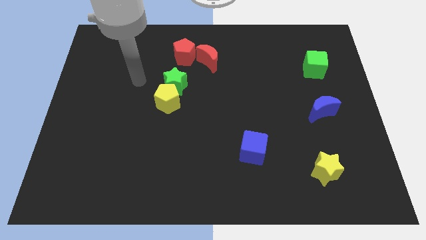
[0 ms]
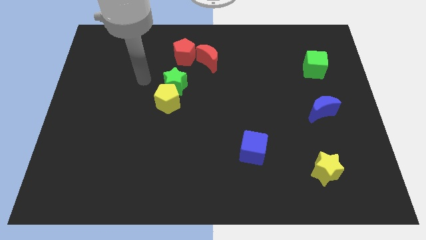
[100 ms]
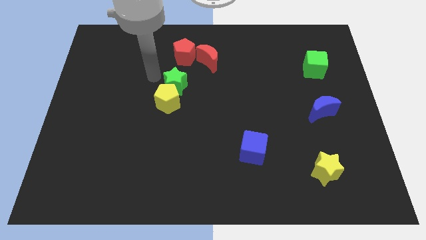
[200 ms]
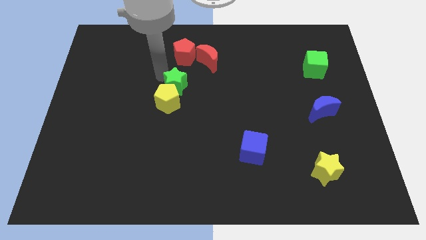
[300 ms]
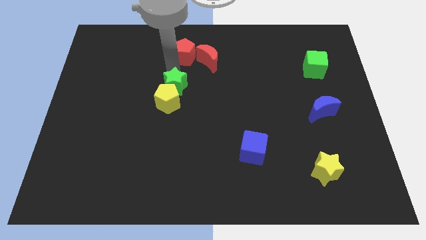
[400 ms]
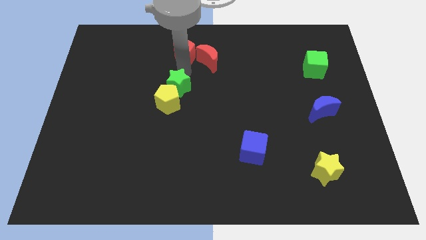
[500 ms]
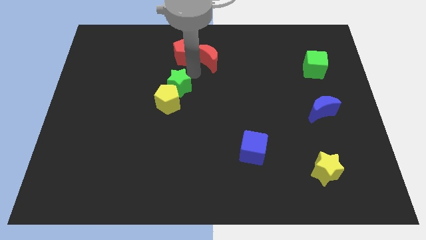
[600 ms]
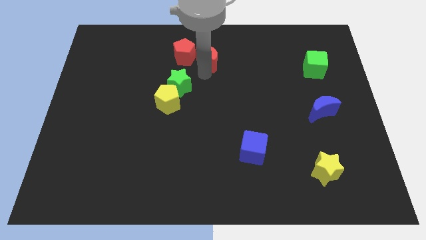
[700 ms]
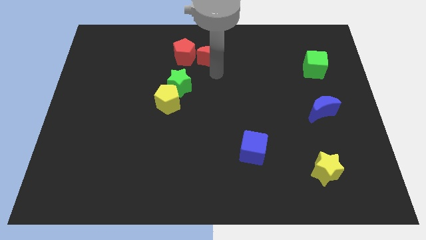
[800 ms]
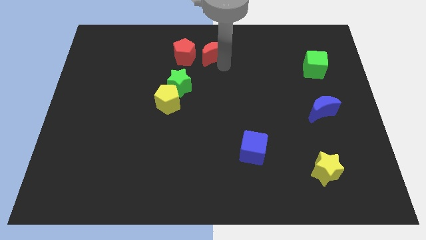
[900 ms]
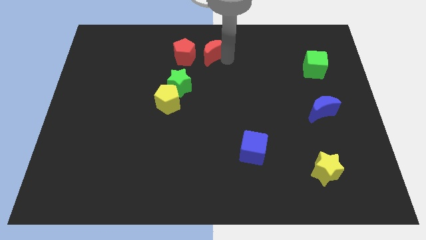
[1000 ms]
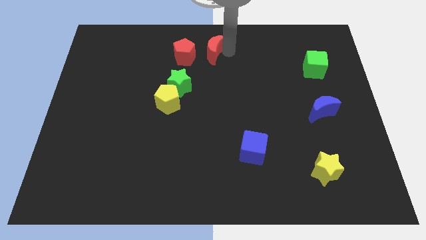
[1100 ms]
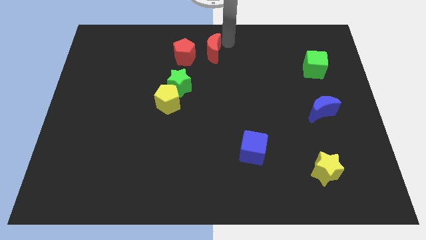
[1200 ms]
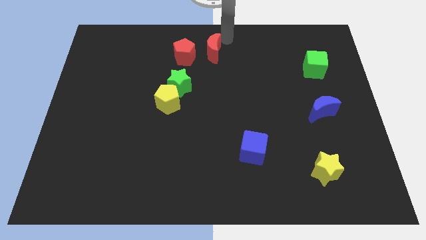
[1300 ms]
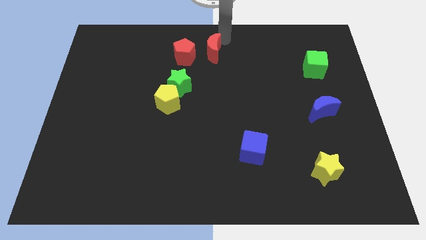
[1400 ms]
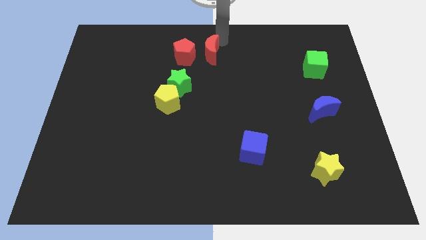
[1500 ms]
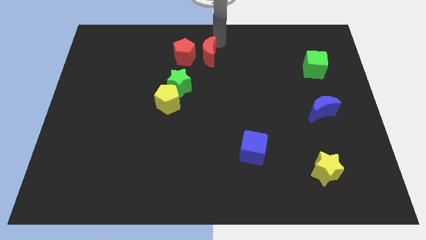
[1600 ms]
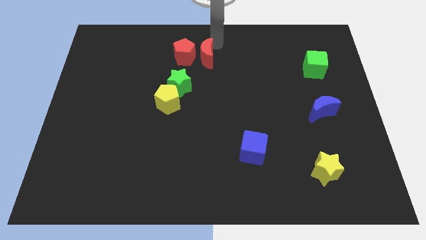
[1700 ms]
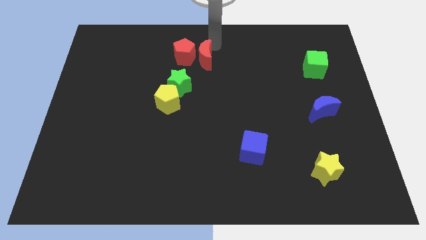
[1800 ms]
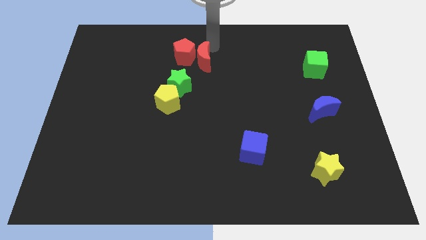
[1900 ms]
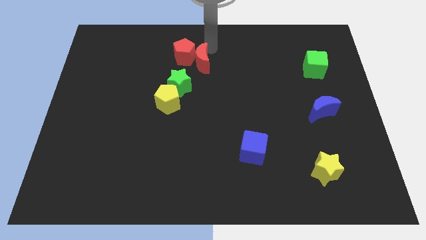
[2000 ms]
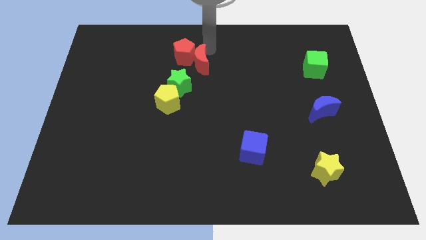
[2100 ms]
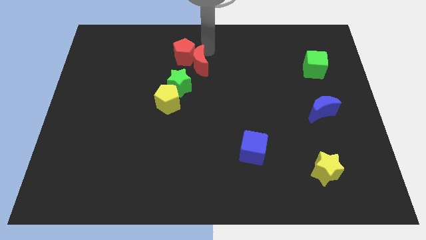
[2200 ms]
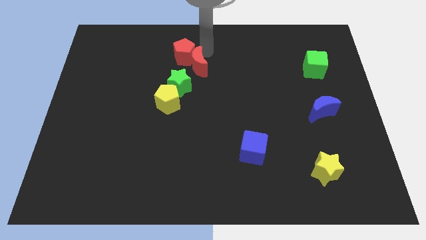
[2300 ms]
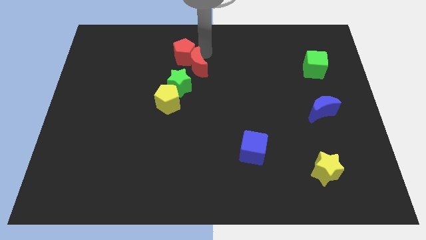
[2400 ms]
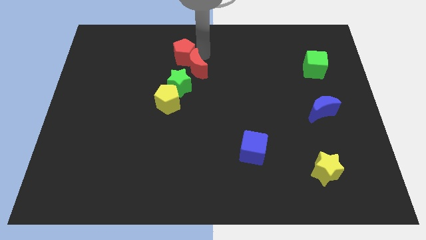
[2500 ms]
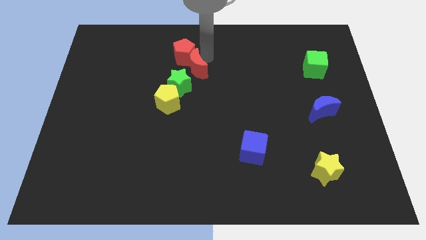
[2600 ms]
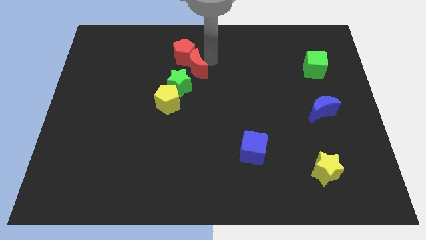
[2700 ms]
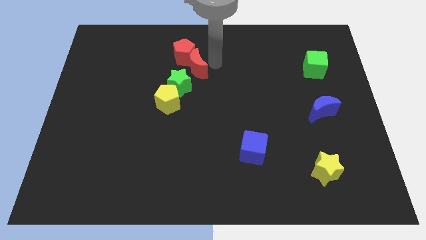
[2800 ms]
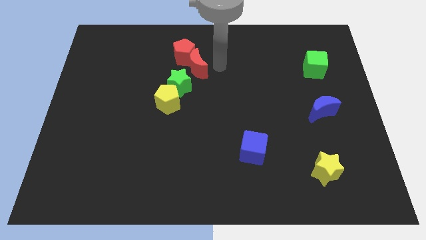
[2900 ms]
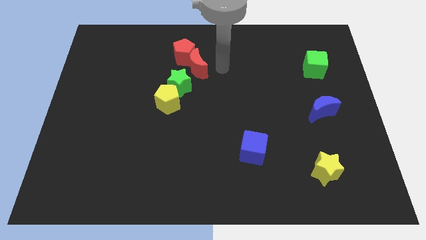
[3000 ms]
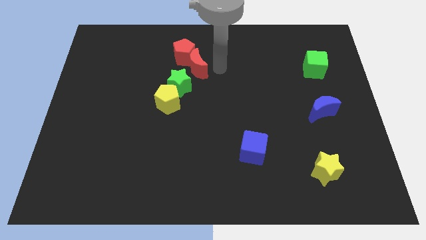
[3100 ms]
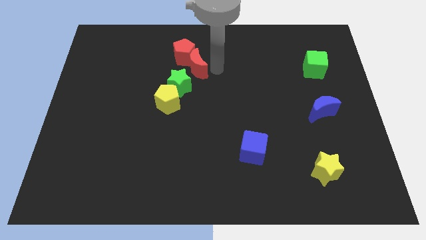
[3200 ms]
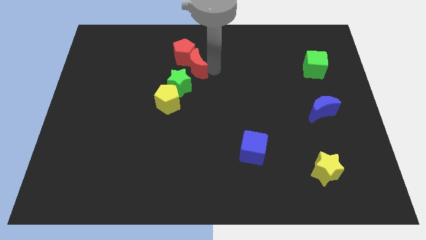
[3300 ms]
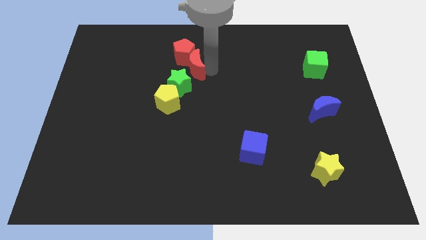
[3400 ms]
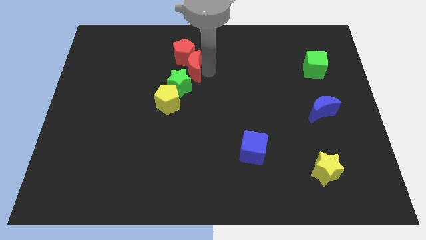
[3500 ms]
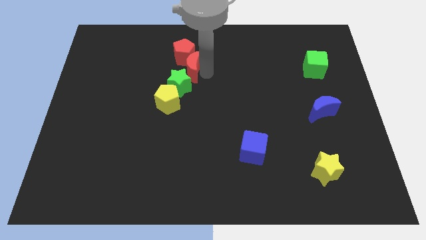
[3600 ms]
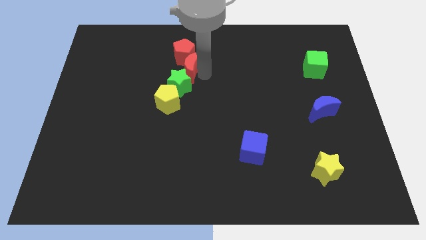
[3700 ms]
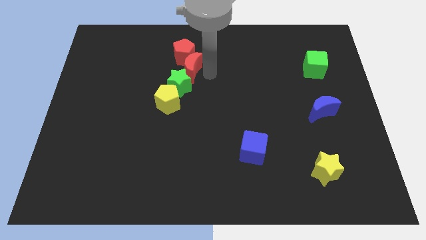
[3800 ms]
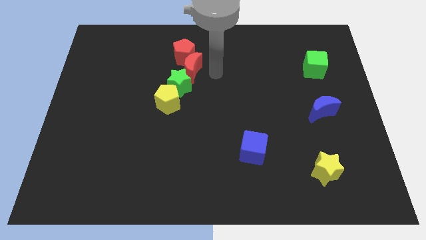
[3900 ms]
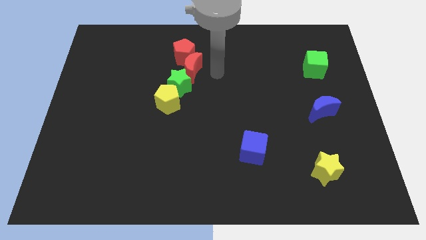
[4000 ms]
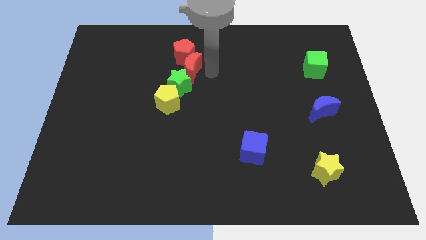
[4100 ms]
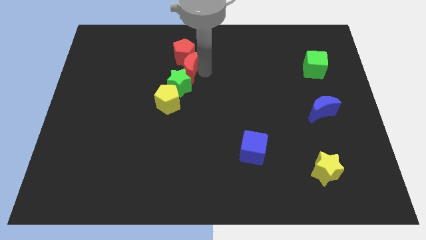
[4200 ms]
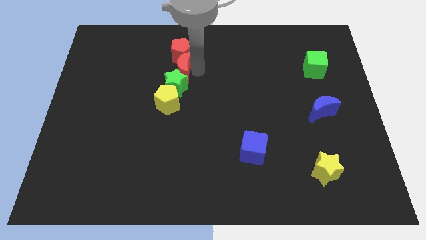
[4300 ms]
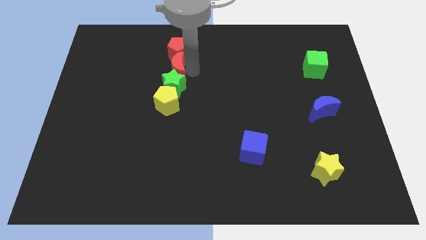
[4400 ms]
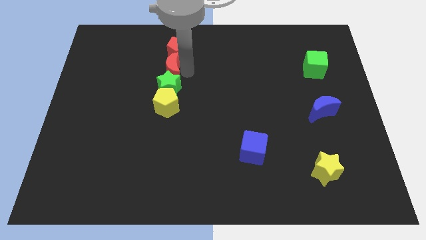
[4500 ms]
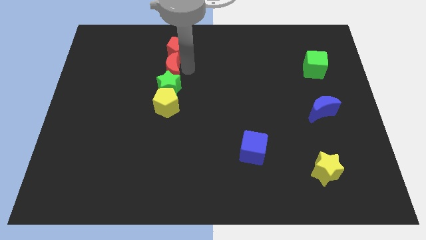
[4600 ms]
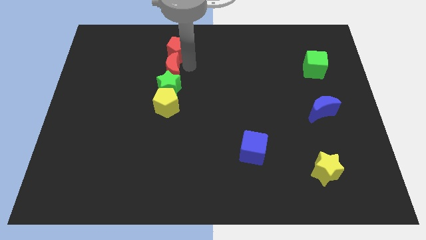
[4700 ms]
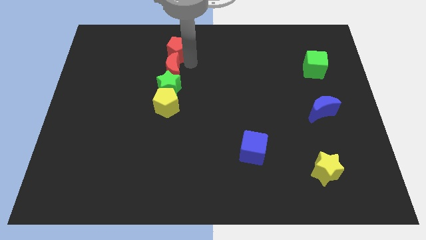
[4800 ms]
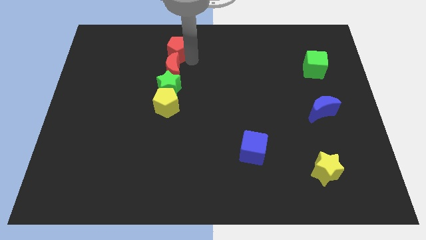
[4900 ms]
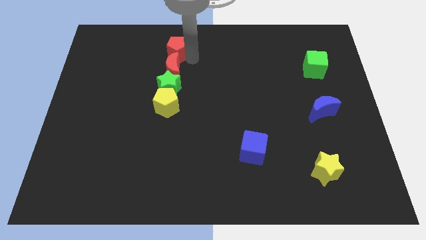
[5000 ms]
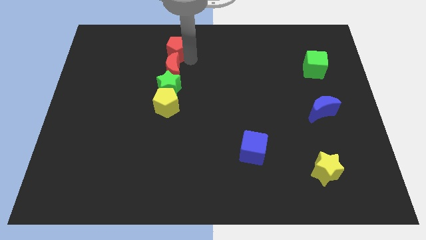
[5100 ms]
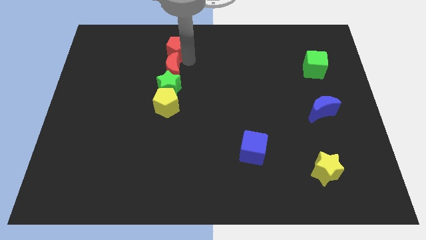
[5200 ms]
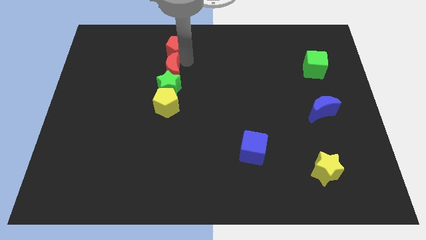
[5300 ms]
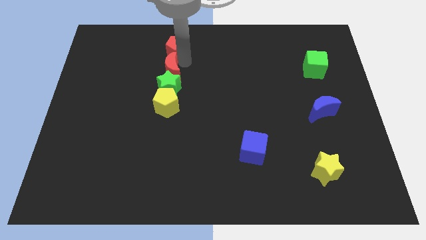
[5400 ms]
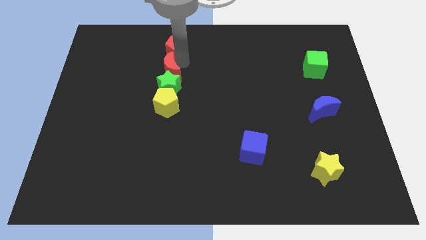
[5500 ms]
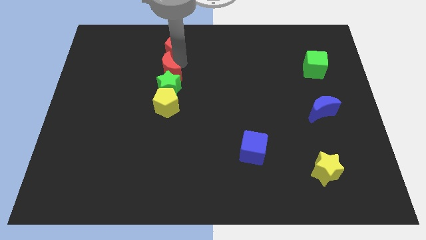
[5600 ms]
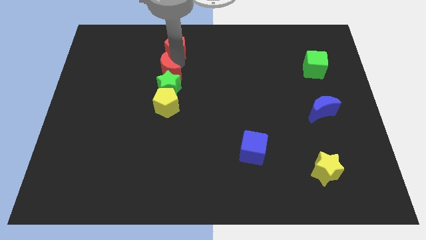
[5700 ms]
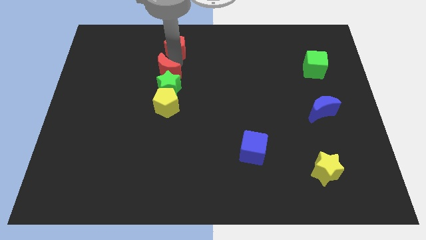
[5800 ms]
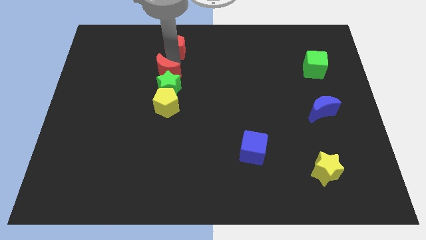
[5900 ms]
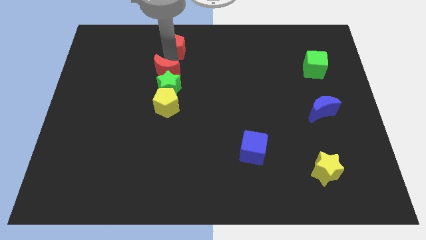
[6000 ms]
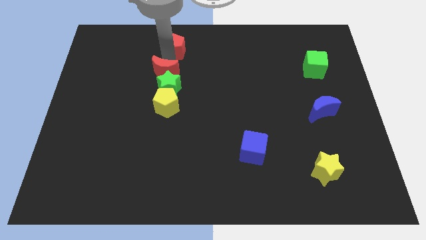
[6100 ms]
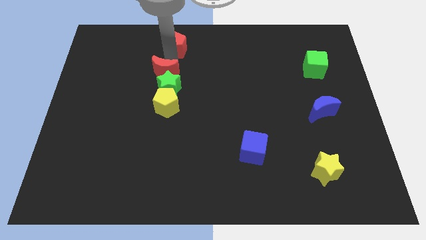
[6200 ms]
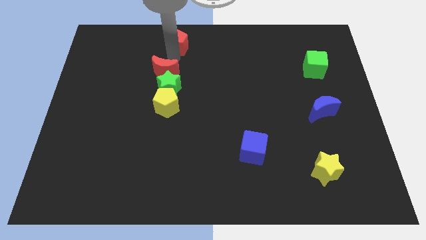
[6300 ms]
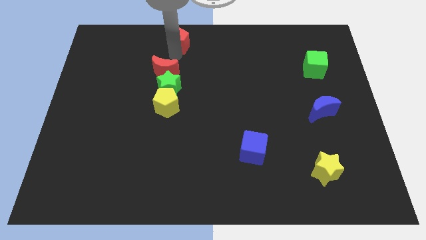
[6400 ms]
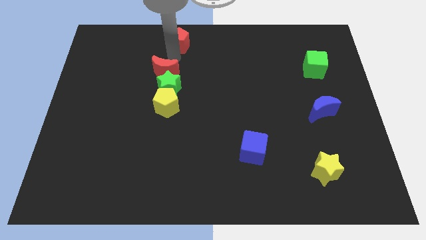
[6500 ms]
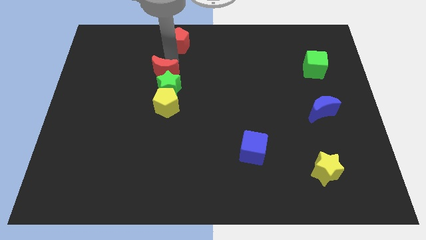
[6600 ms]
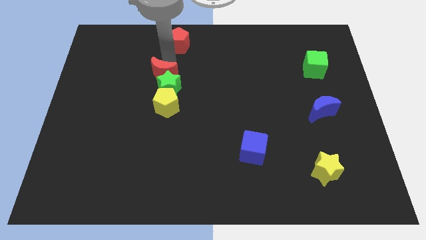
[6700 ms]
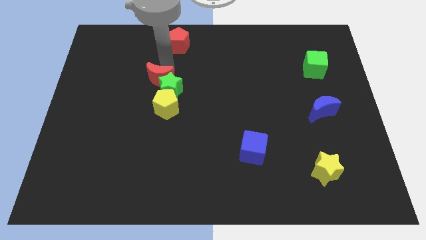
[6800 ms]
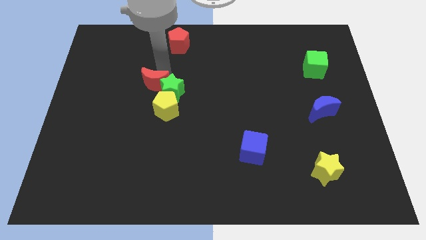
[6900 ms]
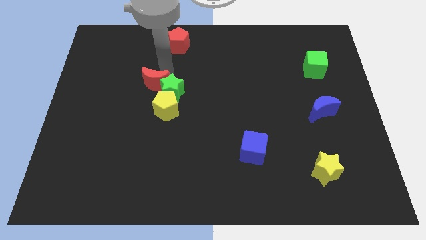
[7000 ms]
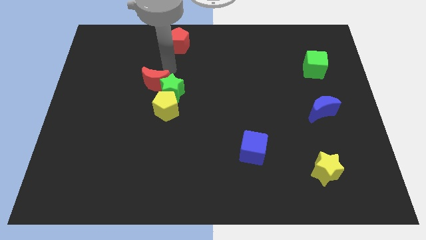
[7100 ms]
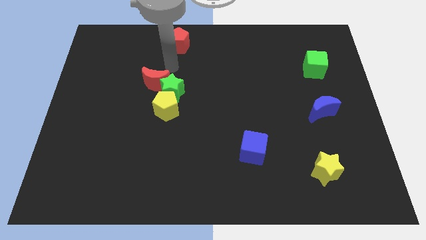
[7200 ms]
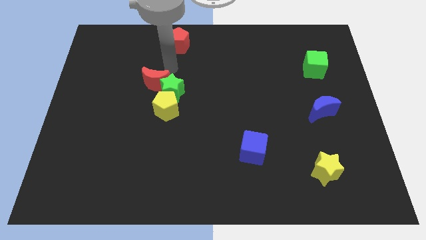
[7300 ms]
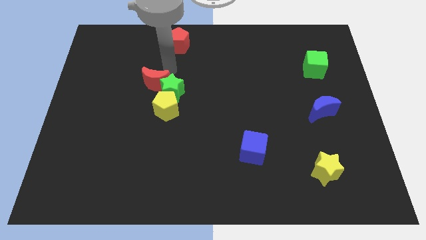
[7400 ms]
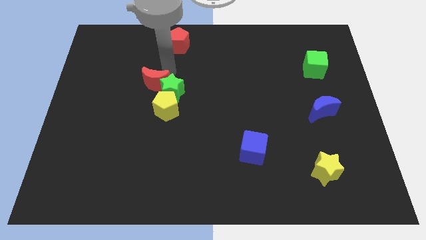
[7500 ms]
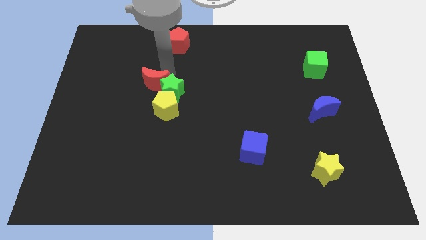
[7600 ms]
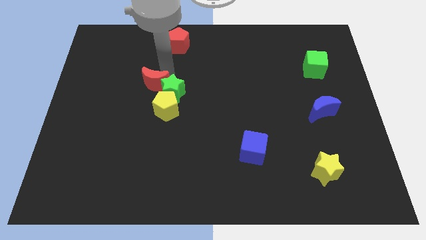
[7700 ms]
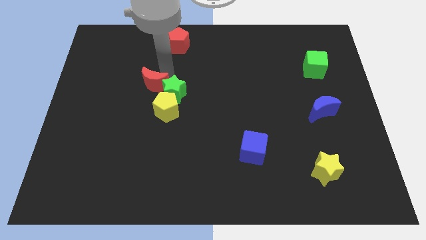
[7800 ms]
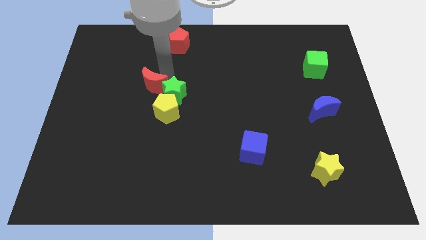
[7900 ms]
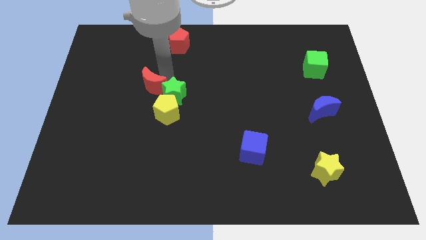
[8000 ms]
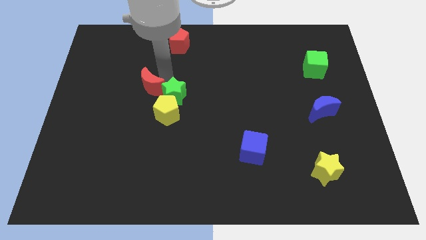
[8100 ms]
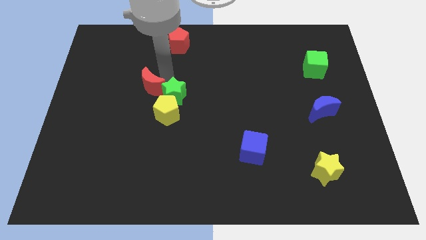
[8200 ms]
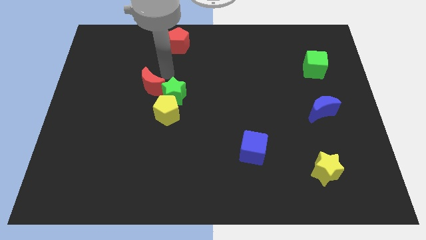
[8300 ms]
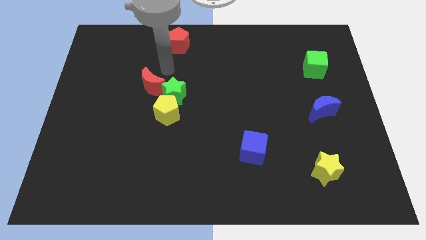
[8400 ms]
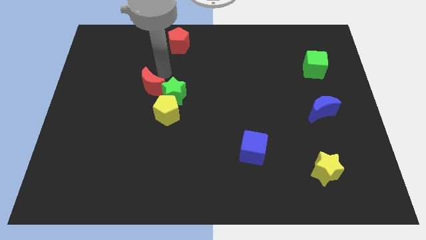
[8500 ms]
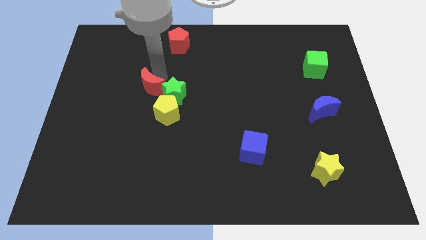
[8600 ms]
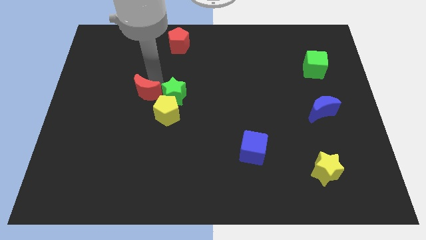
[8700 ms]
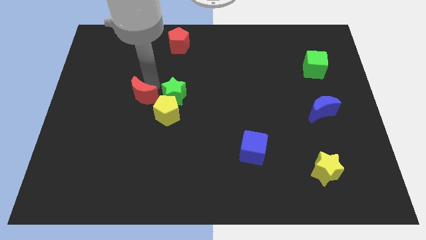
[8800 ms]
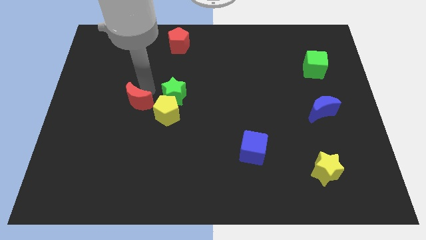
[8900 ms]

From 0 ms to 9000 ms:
push the red moon downwards and left diagonally
